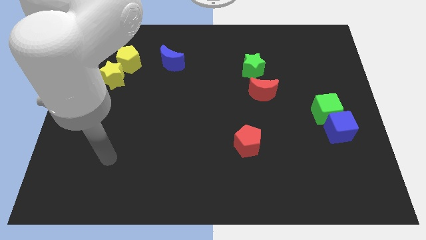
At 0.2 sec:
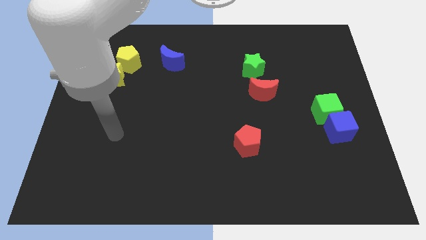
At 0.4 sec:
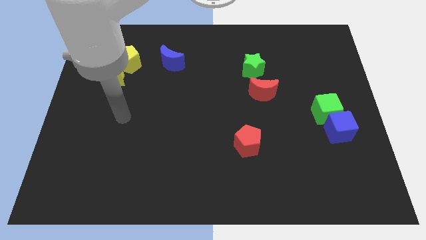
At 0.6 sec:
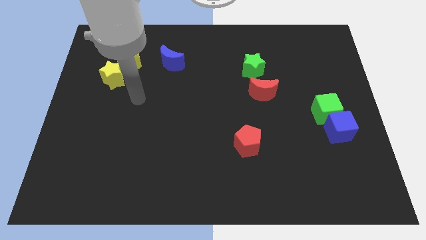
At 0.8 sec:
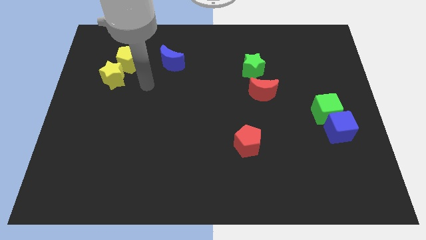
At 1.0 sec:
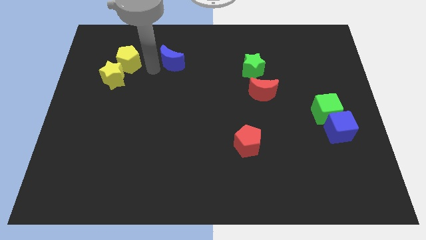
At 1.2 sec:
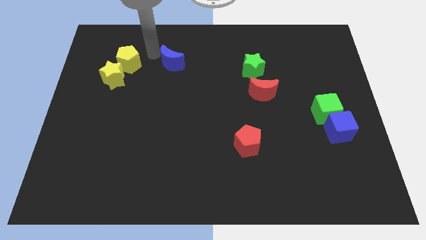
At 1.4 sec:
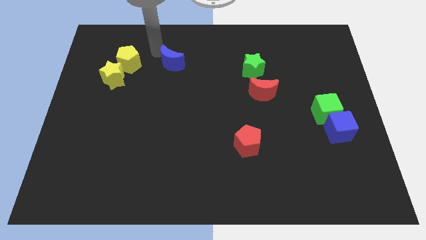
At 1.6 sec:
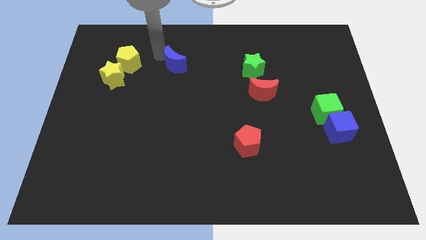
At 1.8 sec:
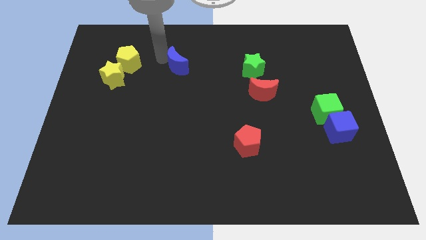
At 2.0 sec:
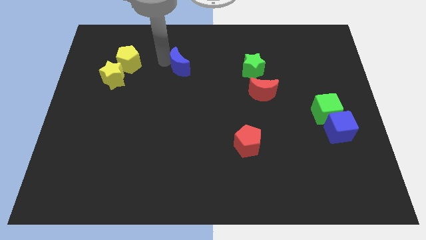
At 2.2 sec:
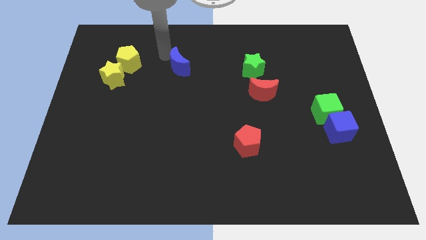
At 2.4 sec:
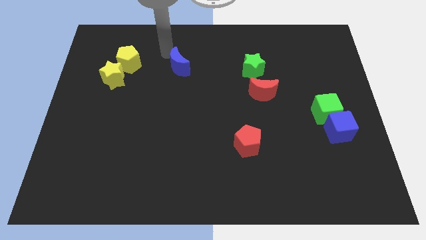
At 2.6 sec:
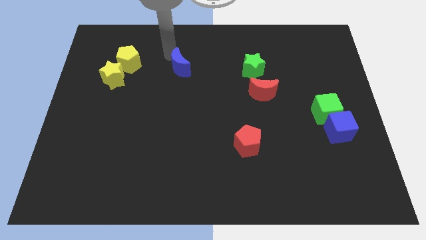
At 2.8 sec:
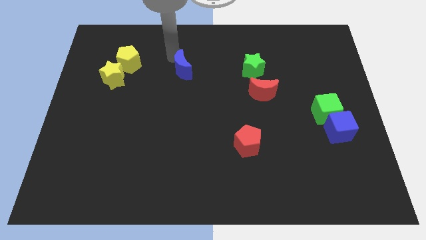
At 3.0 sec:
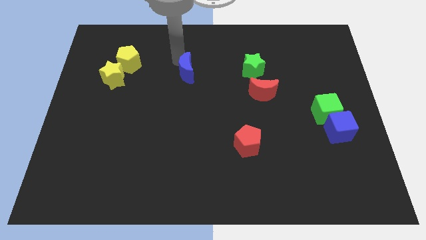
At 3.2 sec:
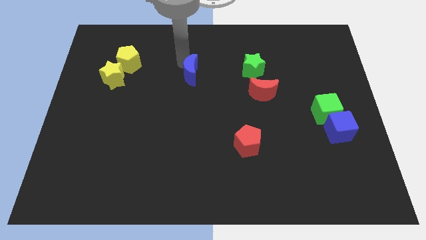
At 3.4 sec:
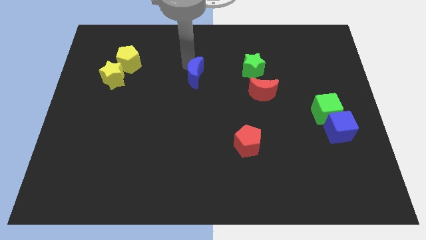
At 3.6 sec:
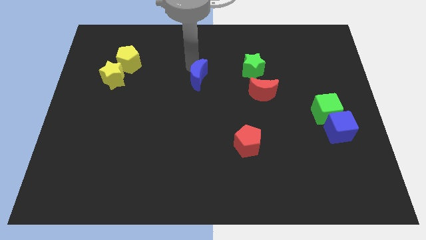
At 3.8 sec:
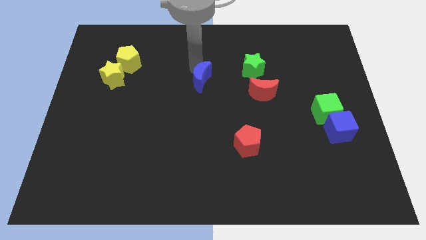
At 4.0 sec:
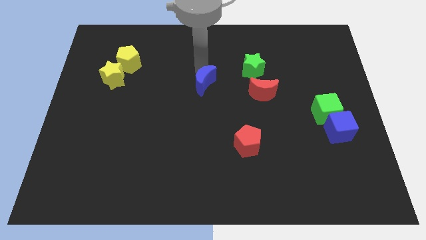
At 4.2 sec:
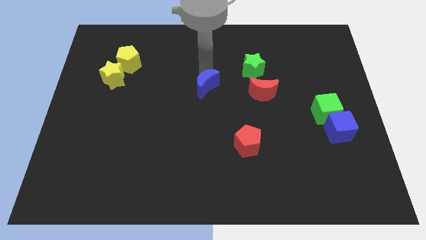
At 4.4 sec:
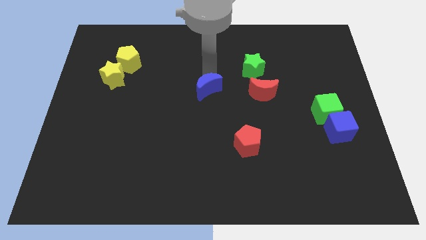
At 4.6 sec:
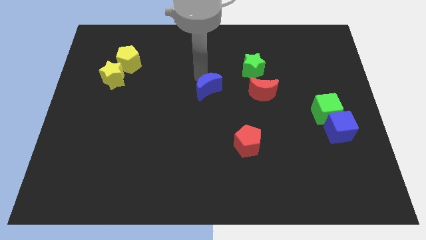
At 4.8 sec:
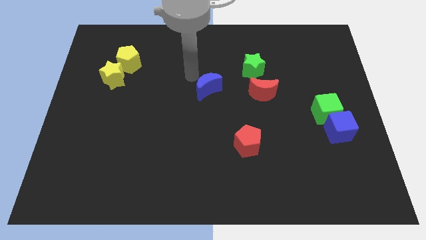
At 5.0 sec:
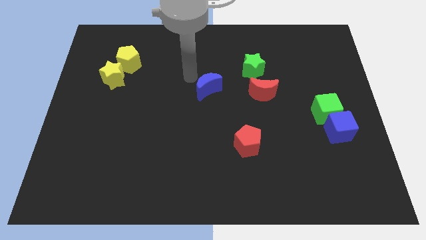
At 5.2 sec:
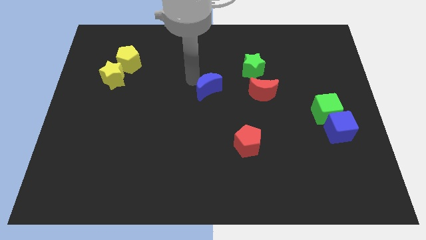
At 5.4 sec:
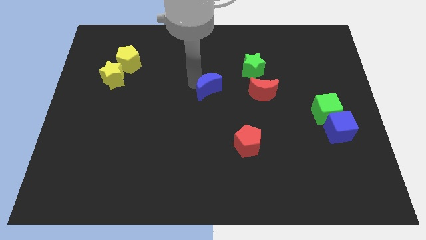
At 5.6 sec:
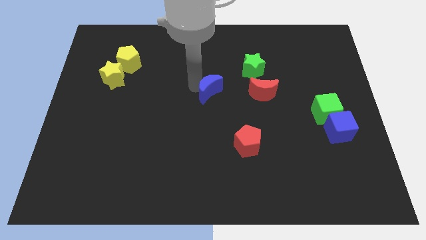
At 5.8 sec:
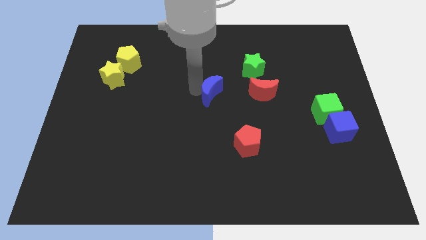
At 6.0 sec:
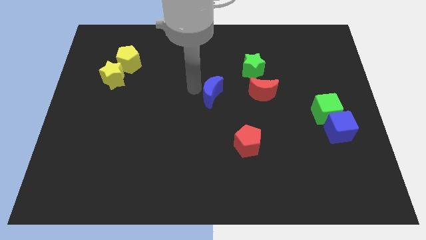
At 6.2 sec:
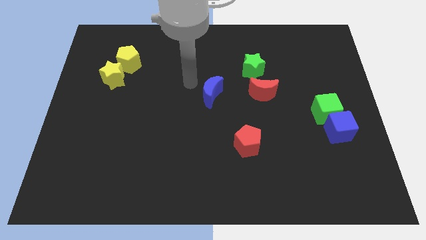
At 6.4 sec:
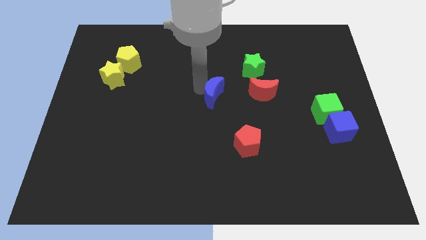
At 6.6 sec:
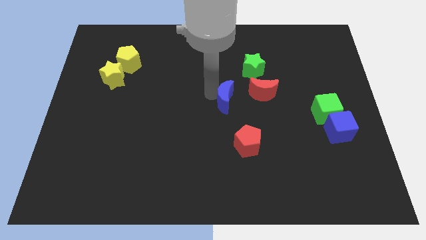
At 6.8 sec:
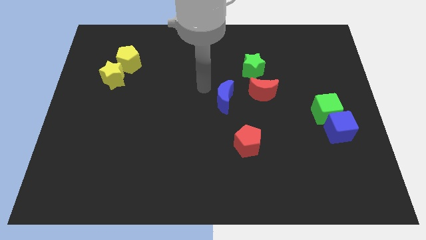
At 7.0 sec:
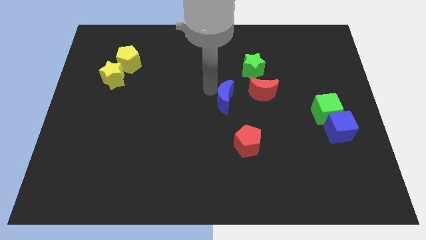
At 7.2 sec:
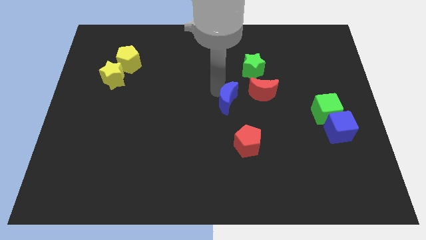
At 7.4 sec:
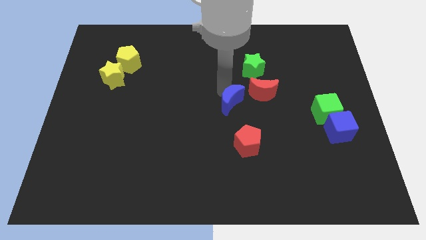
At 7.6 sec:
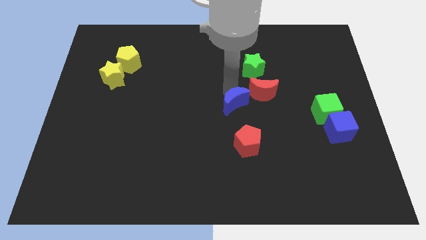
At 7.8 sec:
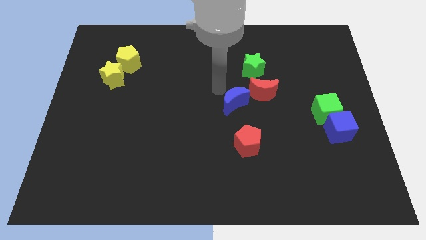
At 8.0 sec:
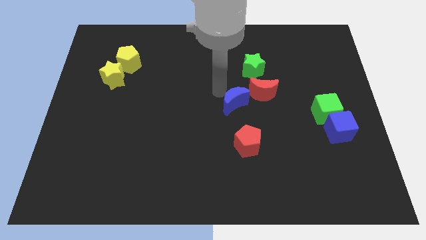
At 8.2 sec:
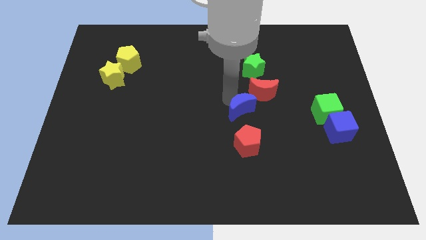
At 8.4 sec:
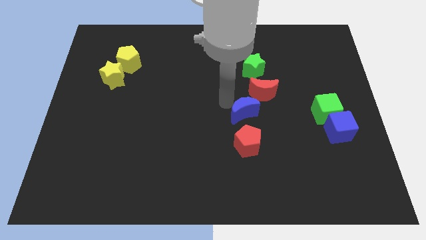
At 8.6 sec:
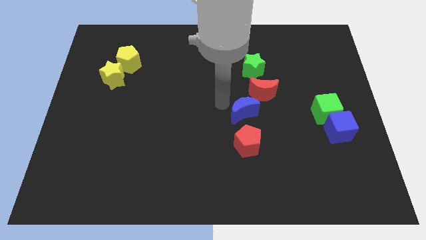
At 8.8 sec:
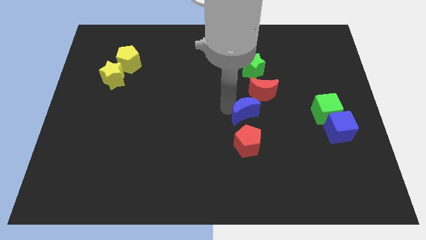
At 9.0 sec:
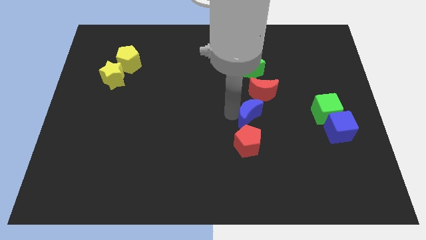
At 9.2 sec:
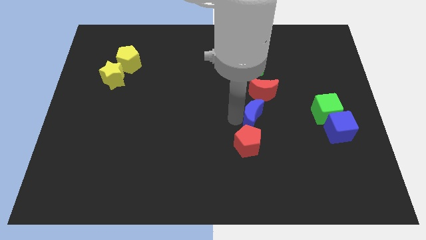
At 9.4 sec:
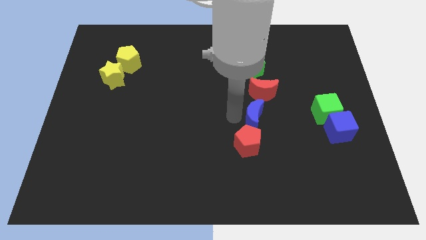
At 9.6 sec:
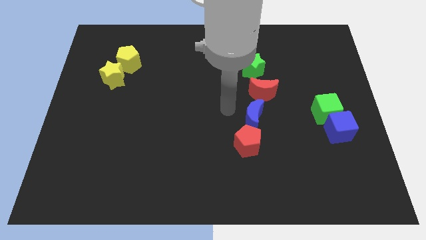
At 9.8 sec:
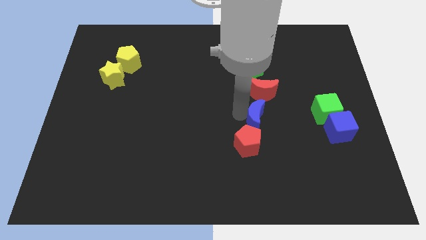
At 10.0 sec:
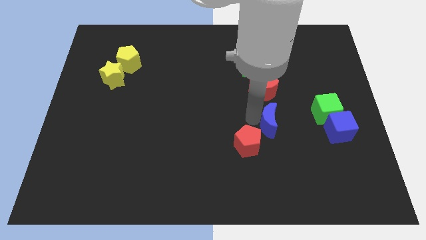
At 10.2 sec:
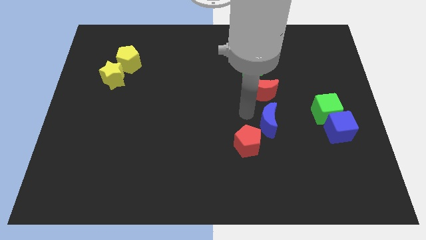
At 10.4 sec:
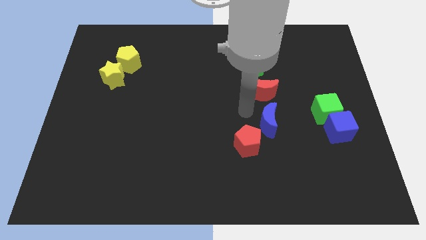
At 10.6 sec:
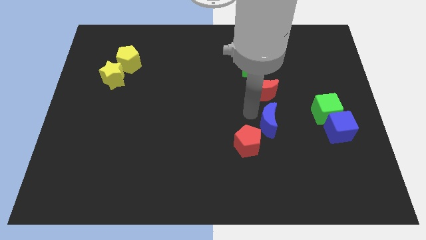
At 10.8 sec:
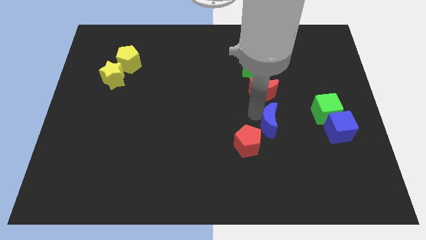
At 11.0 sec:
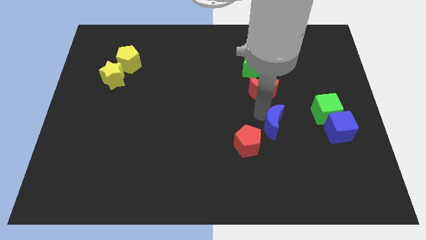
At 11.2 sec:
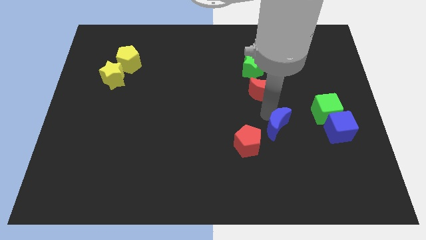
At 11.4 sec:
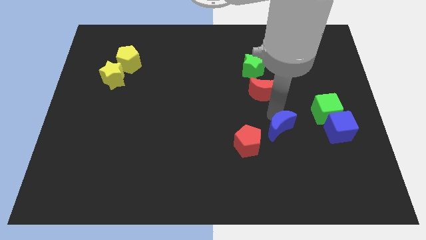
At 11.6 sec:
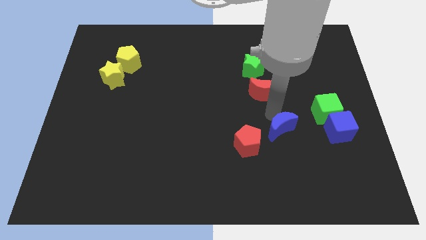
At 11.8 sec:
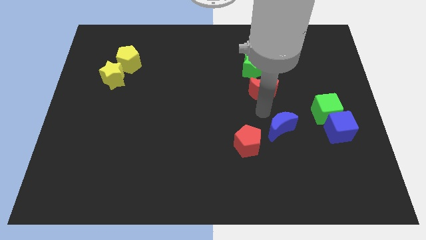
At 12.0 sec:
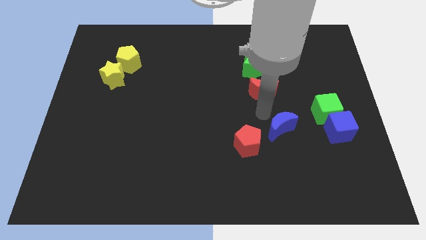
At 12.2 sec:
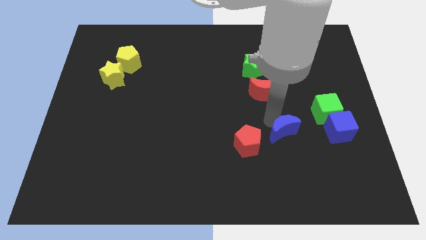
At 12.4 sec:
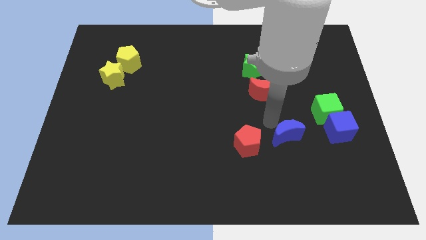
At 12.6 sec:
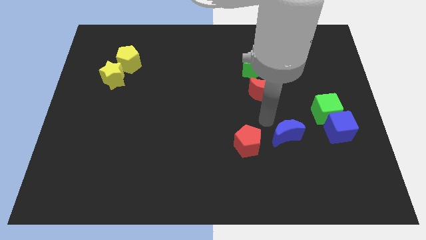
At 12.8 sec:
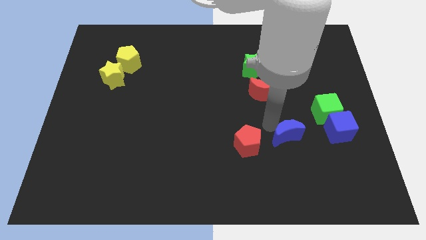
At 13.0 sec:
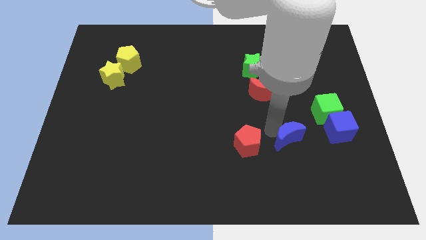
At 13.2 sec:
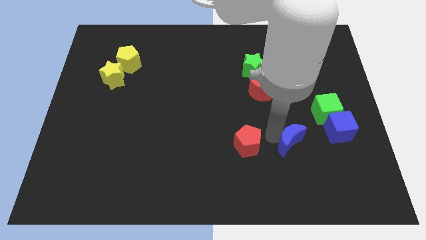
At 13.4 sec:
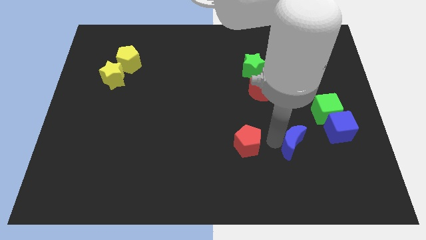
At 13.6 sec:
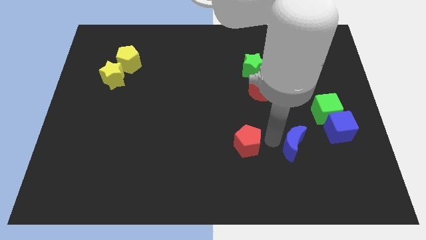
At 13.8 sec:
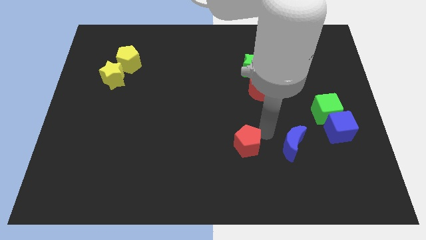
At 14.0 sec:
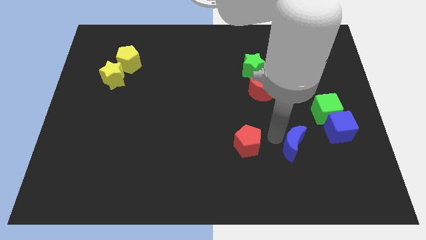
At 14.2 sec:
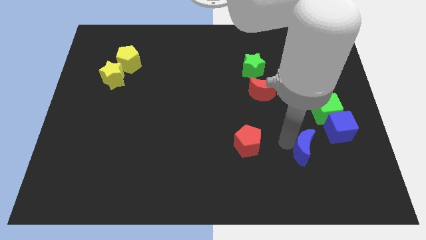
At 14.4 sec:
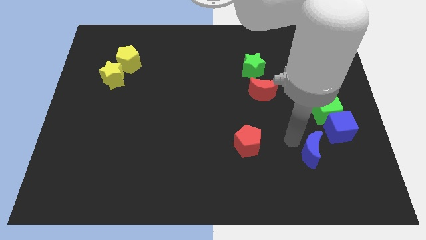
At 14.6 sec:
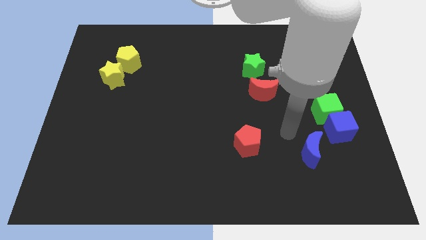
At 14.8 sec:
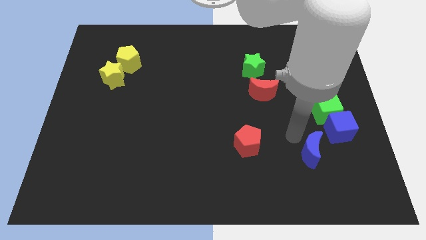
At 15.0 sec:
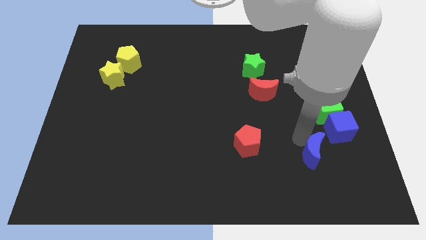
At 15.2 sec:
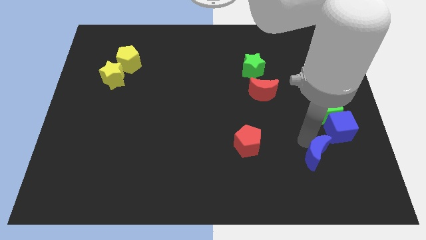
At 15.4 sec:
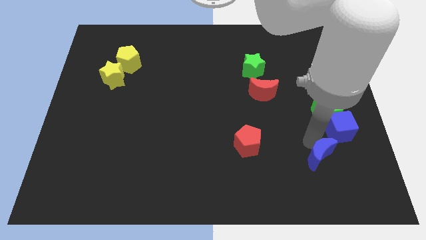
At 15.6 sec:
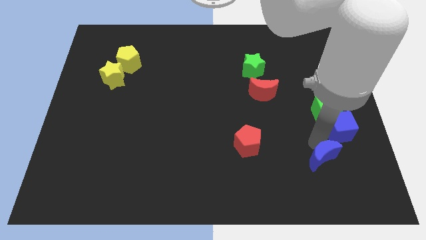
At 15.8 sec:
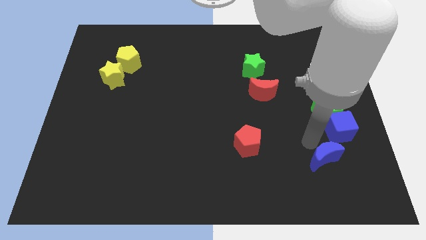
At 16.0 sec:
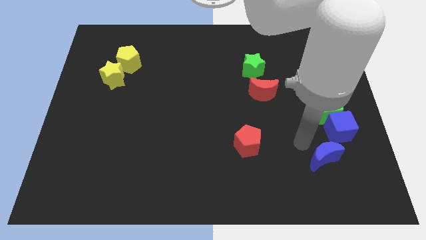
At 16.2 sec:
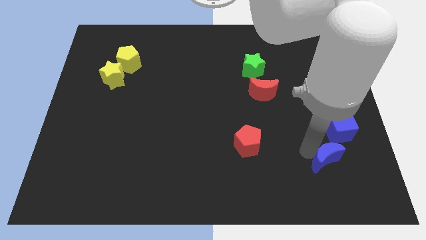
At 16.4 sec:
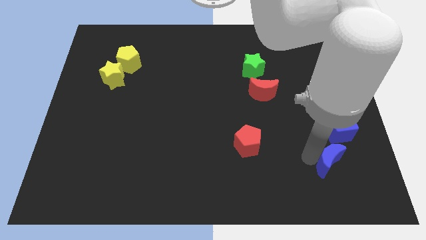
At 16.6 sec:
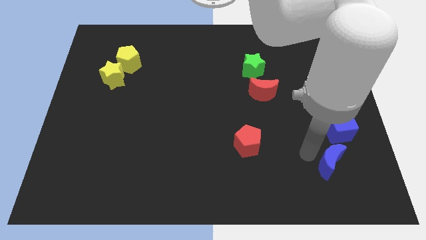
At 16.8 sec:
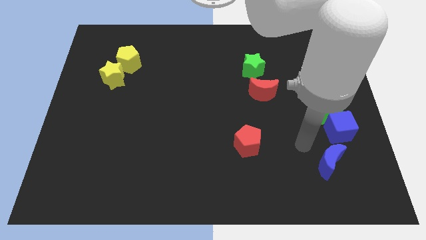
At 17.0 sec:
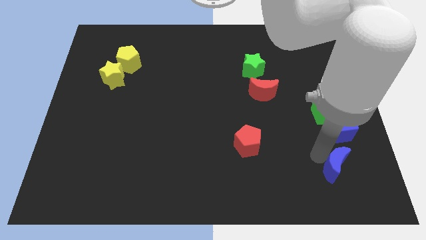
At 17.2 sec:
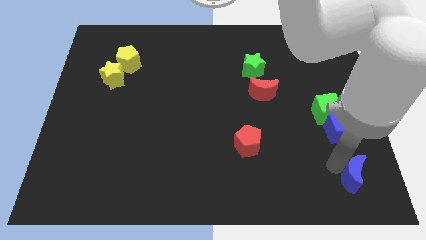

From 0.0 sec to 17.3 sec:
move the blue moon to the bottom right corner
